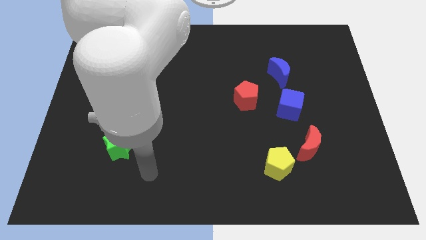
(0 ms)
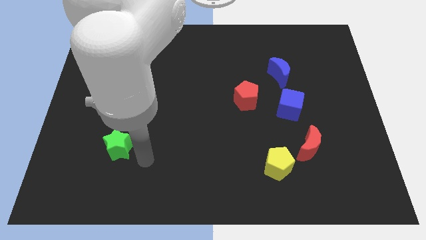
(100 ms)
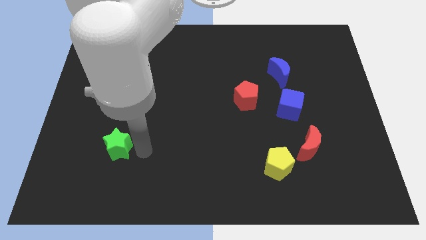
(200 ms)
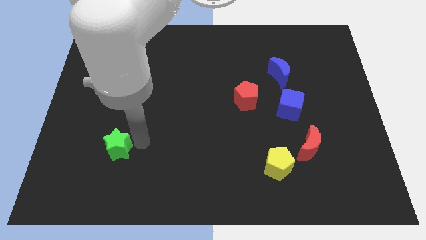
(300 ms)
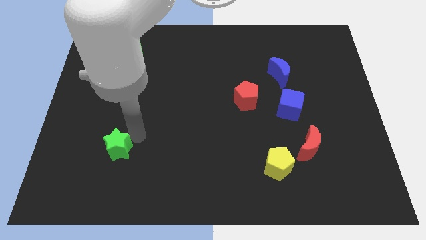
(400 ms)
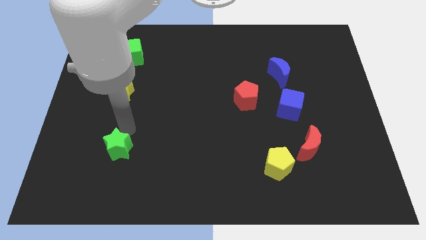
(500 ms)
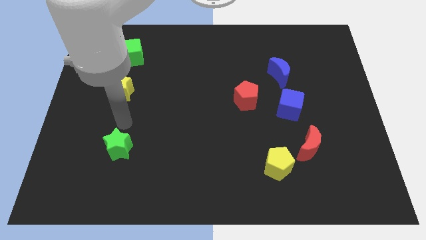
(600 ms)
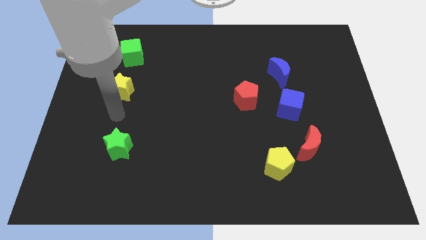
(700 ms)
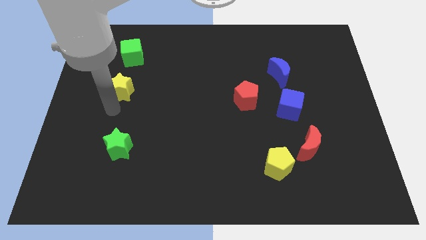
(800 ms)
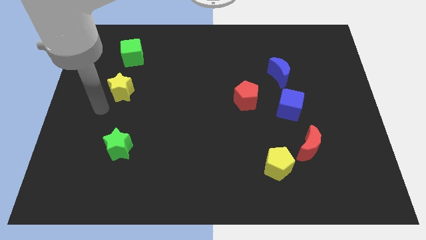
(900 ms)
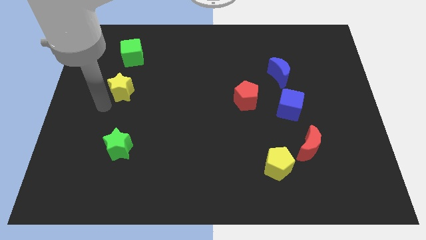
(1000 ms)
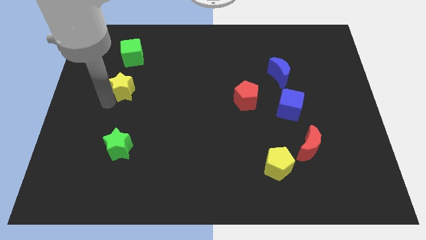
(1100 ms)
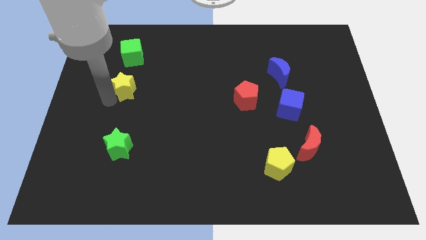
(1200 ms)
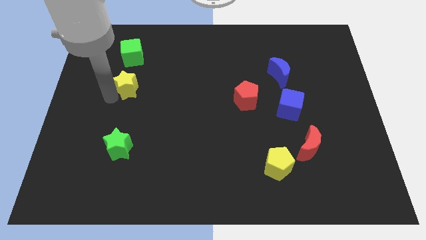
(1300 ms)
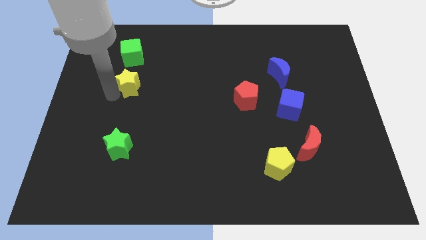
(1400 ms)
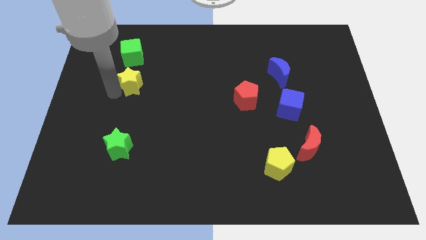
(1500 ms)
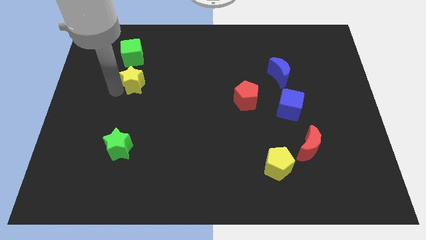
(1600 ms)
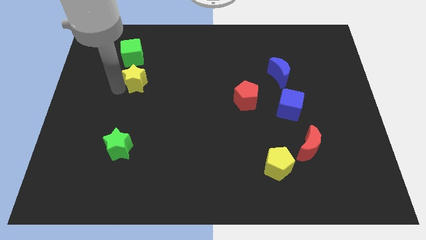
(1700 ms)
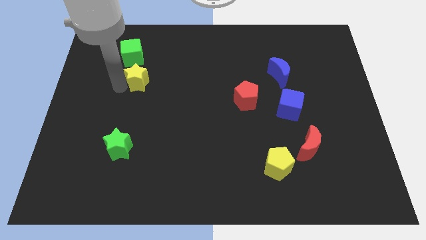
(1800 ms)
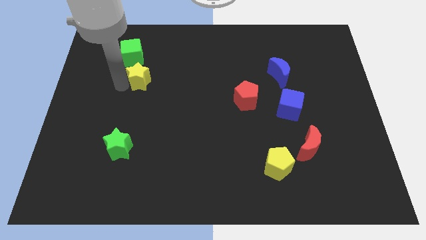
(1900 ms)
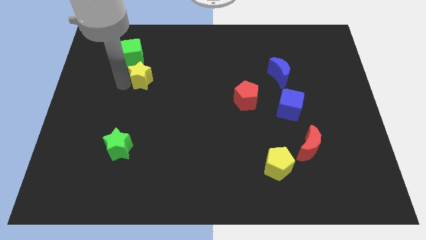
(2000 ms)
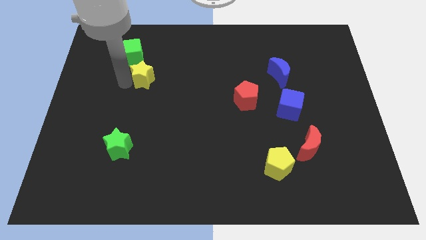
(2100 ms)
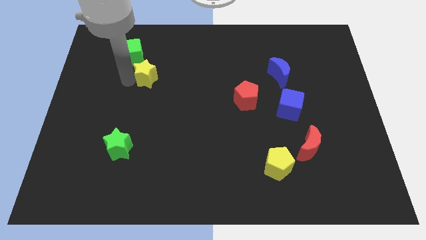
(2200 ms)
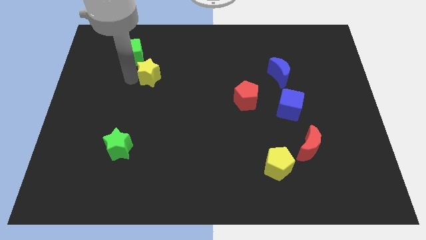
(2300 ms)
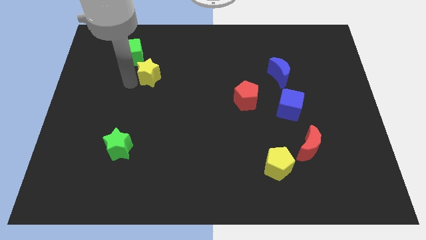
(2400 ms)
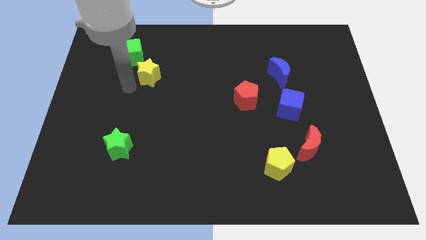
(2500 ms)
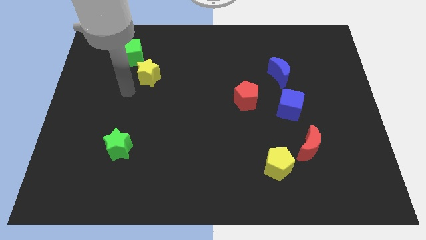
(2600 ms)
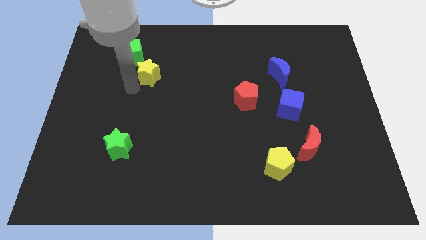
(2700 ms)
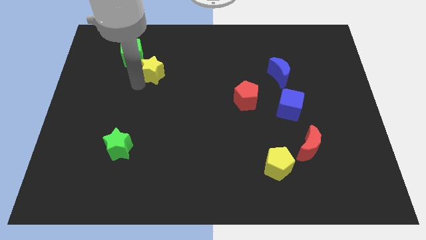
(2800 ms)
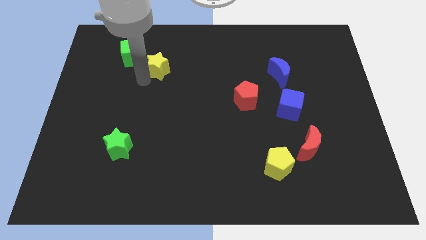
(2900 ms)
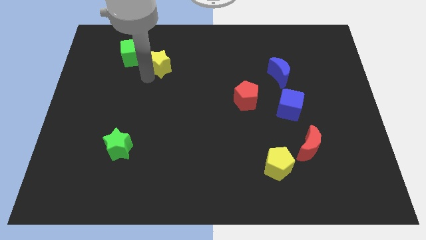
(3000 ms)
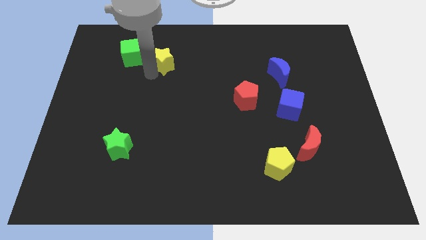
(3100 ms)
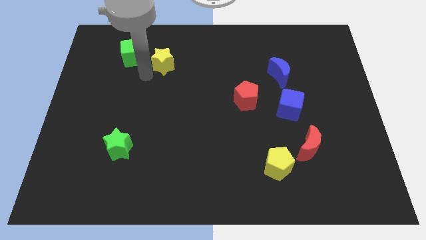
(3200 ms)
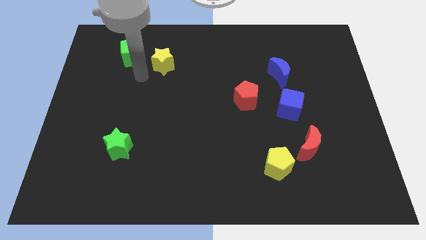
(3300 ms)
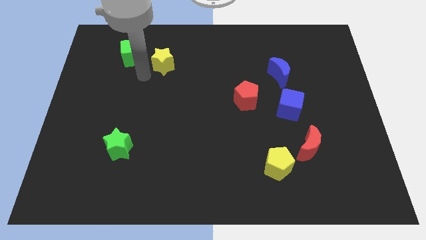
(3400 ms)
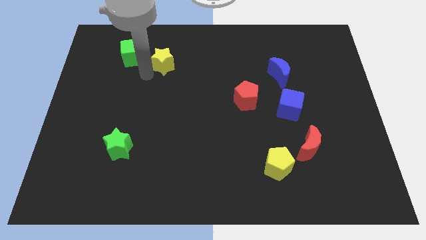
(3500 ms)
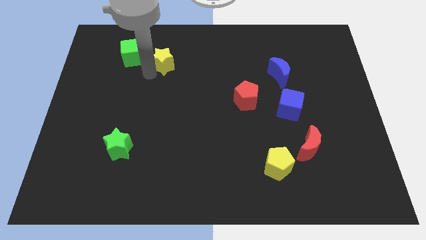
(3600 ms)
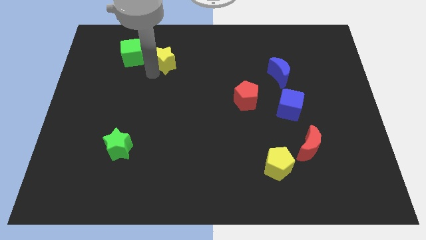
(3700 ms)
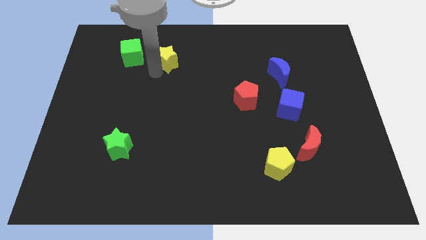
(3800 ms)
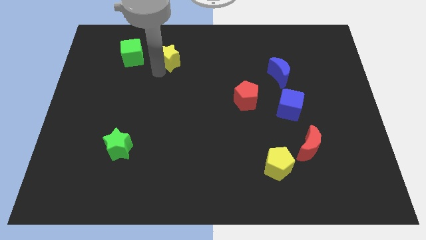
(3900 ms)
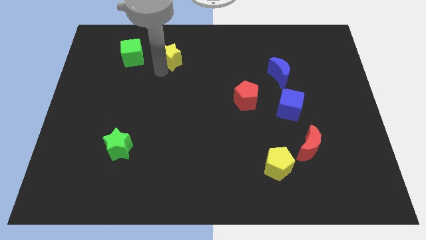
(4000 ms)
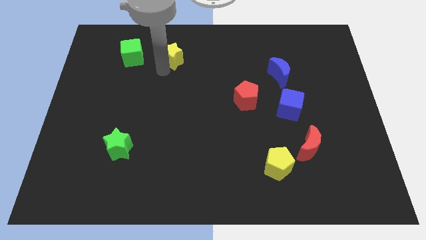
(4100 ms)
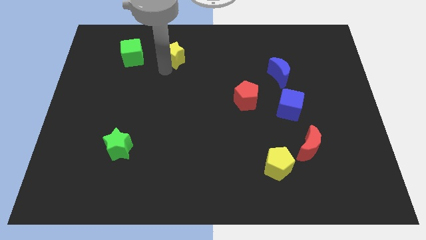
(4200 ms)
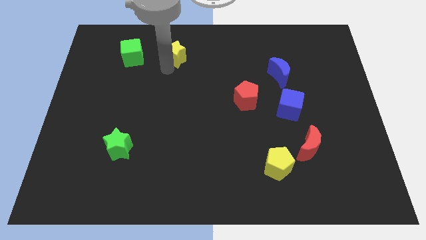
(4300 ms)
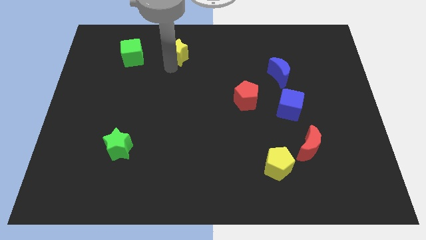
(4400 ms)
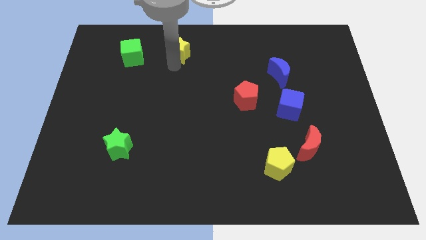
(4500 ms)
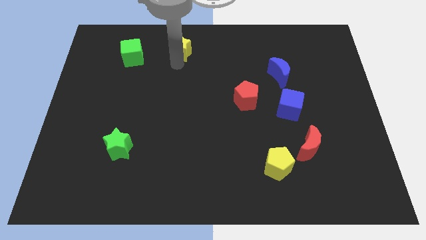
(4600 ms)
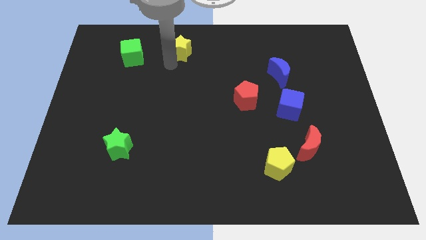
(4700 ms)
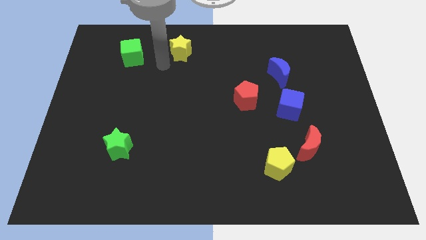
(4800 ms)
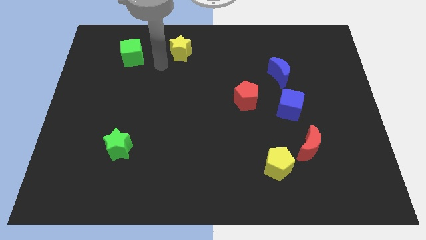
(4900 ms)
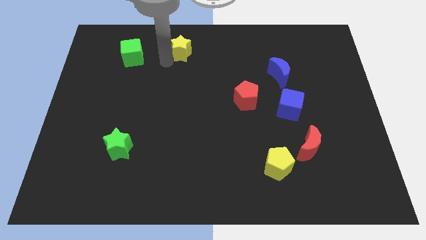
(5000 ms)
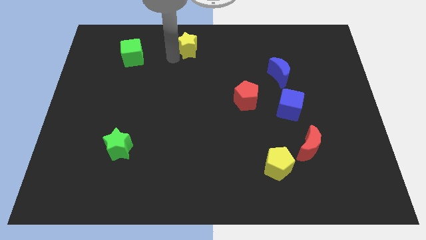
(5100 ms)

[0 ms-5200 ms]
put the yellow star to the top side

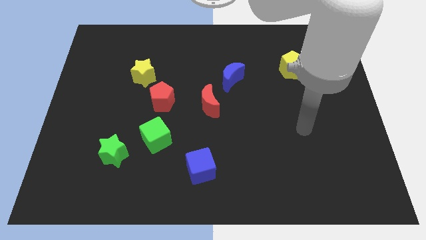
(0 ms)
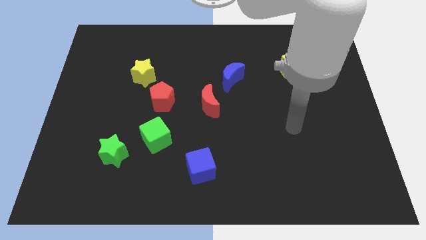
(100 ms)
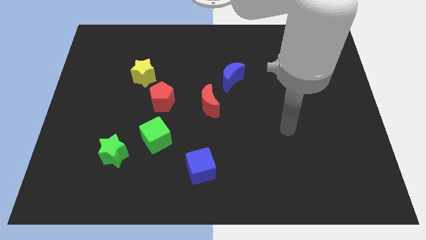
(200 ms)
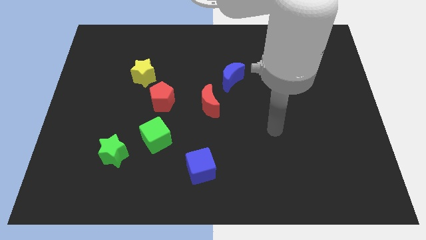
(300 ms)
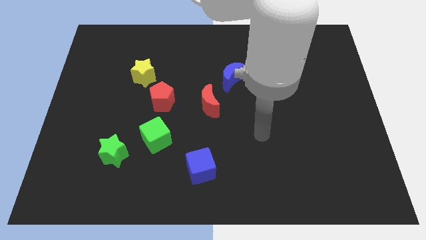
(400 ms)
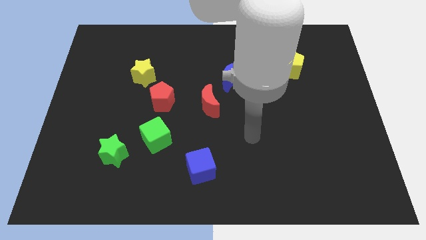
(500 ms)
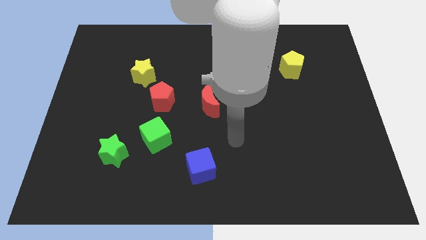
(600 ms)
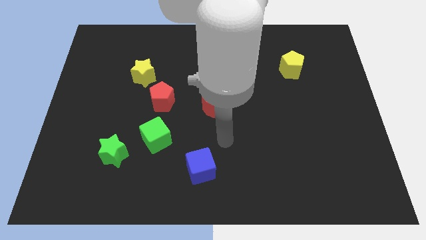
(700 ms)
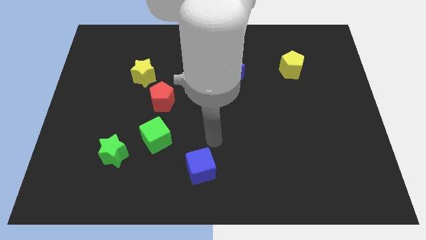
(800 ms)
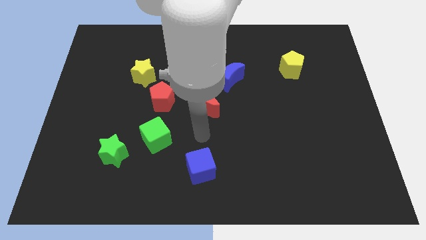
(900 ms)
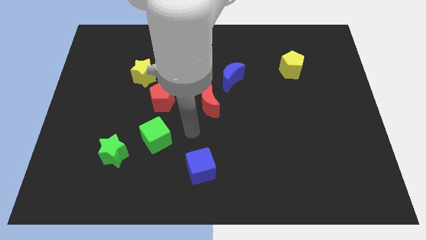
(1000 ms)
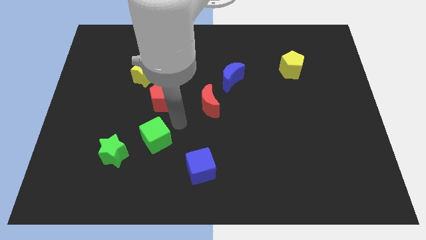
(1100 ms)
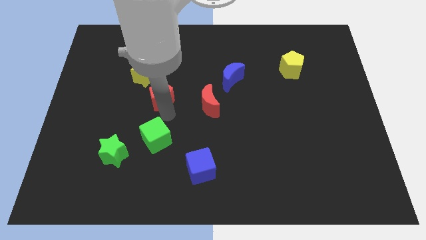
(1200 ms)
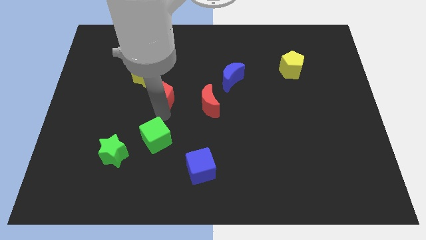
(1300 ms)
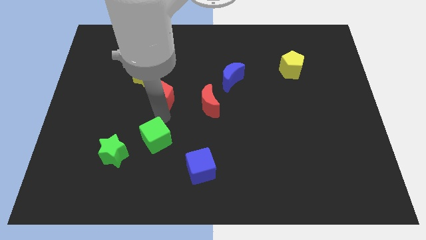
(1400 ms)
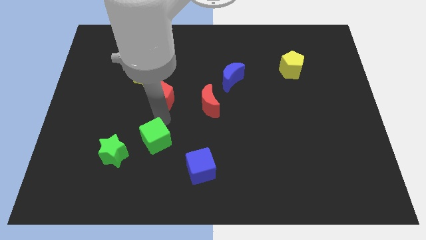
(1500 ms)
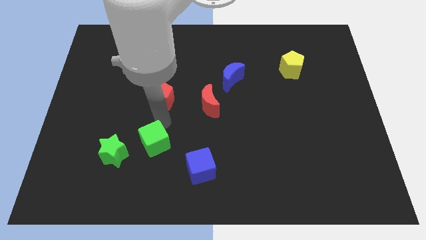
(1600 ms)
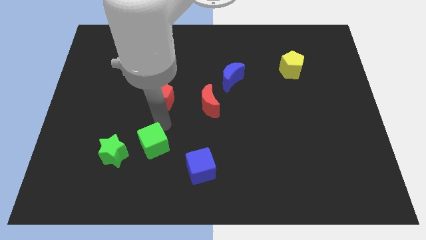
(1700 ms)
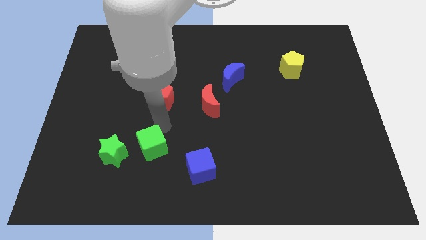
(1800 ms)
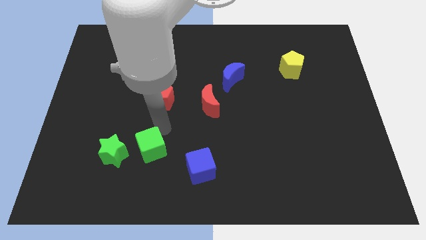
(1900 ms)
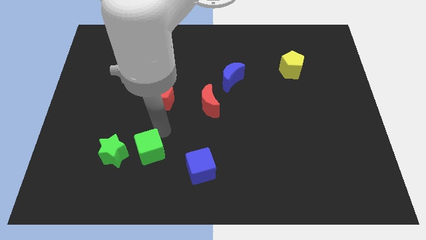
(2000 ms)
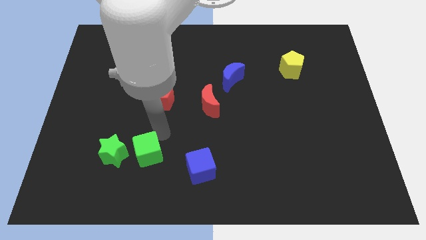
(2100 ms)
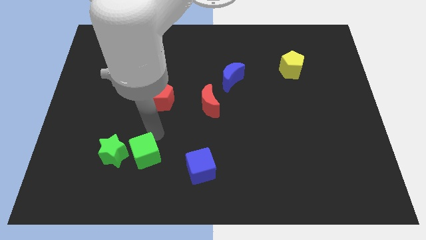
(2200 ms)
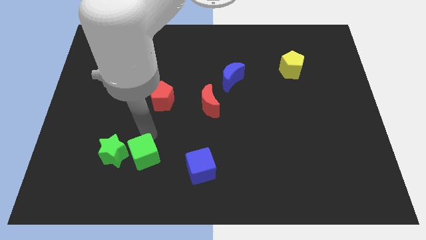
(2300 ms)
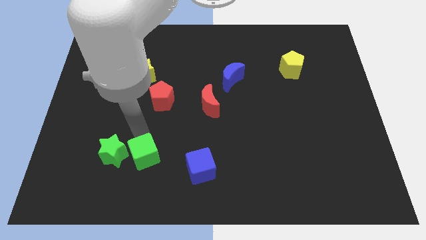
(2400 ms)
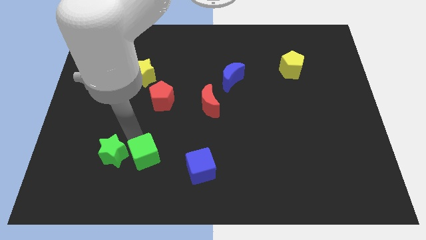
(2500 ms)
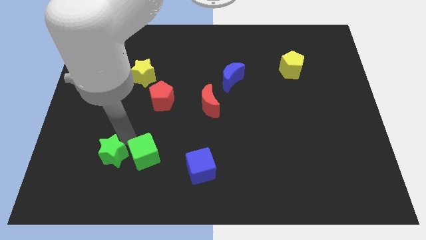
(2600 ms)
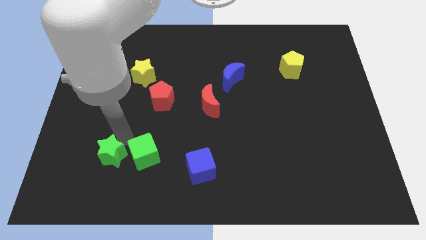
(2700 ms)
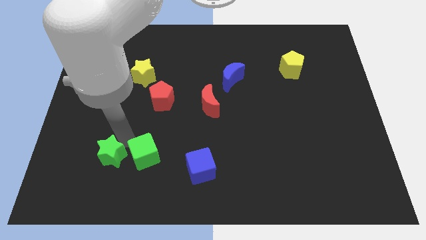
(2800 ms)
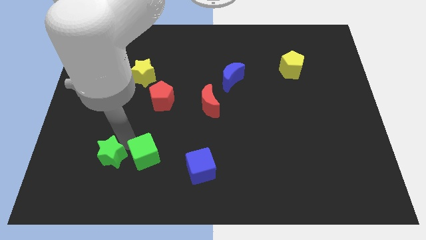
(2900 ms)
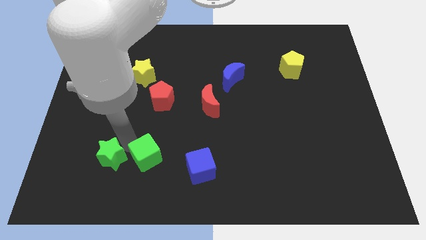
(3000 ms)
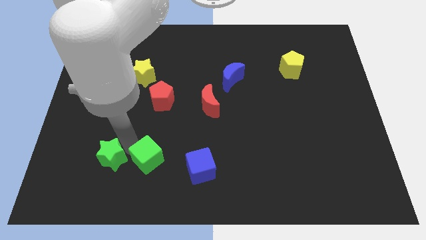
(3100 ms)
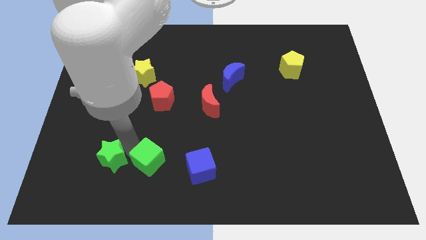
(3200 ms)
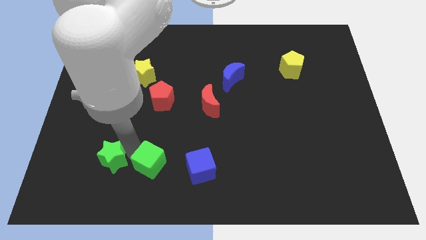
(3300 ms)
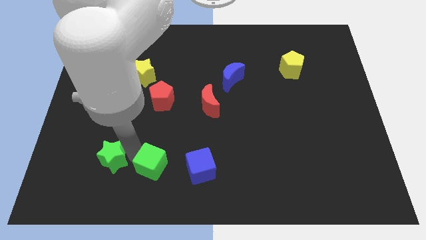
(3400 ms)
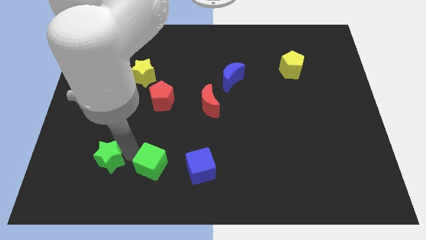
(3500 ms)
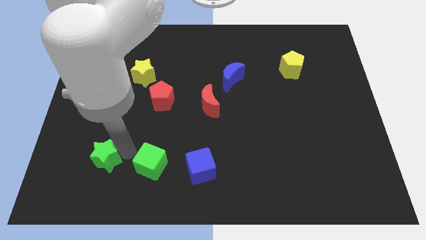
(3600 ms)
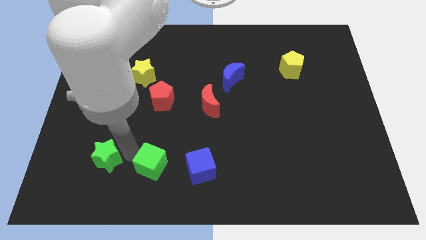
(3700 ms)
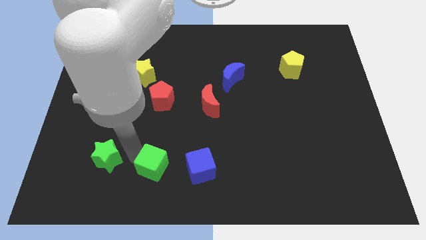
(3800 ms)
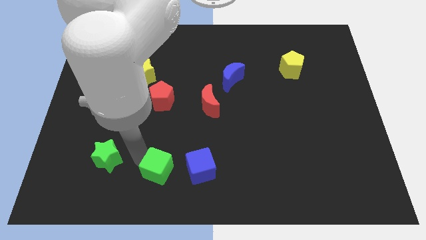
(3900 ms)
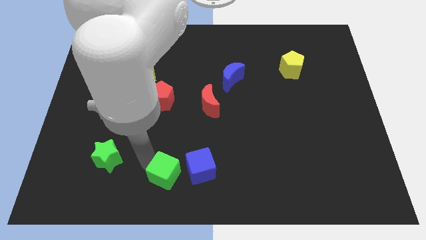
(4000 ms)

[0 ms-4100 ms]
move the green cube to the bottom side
